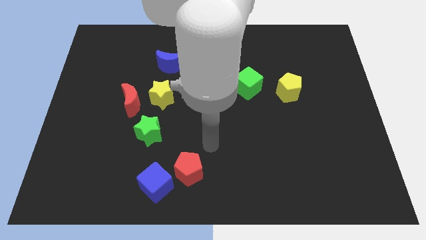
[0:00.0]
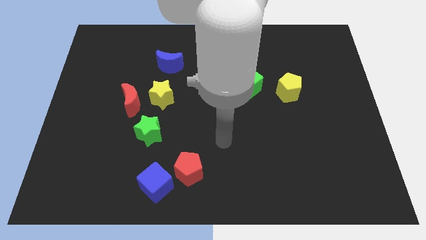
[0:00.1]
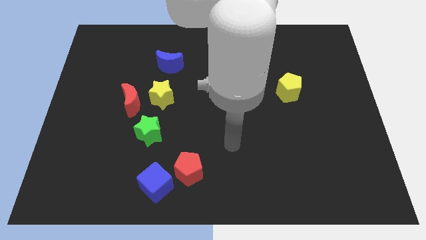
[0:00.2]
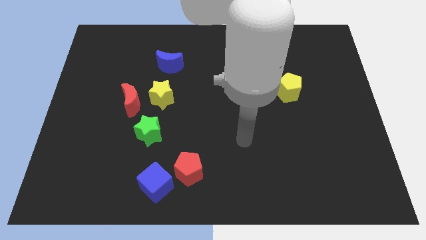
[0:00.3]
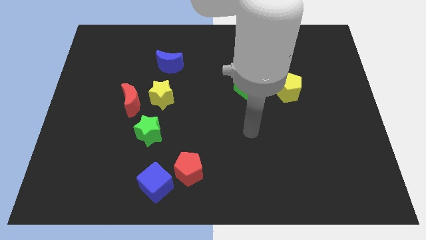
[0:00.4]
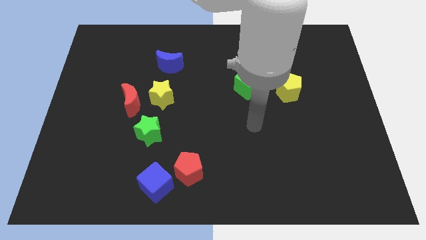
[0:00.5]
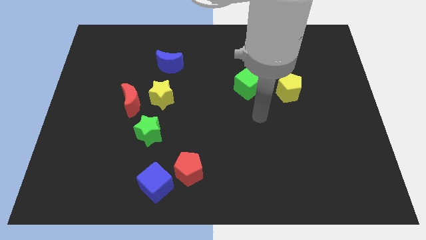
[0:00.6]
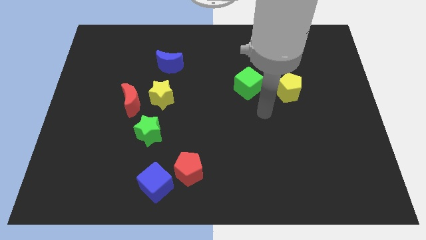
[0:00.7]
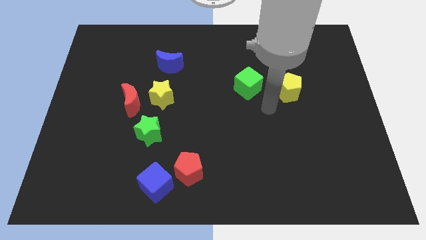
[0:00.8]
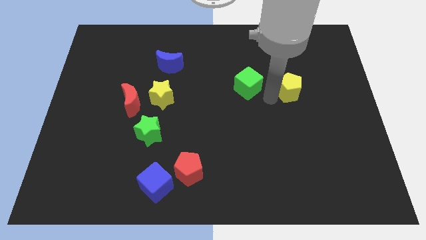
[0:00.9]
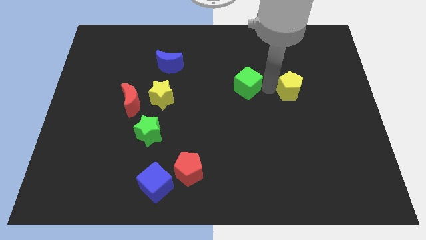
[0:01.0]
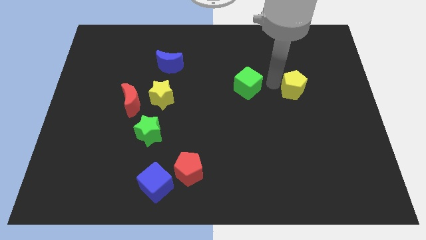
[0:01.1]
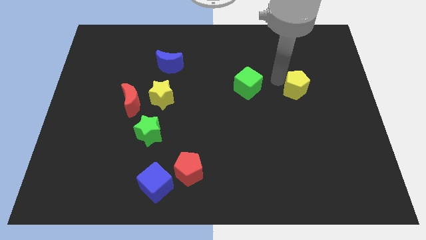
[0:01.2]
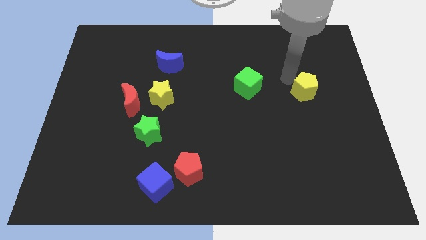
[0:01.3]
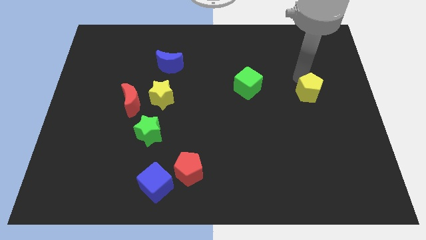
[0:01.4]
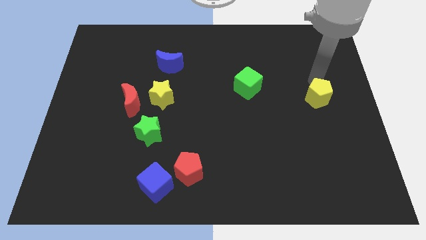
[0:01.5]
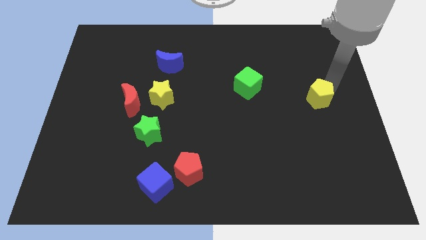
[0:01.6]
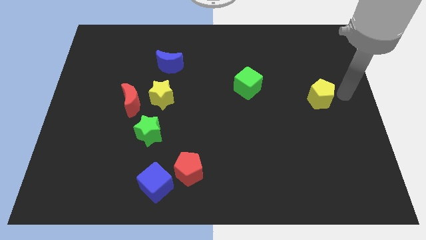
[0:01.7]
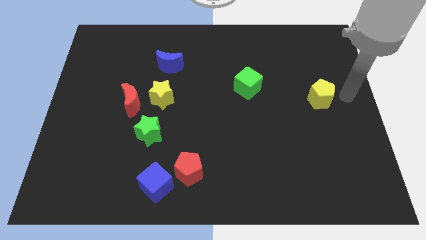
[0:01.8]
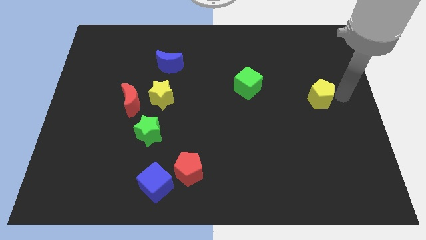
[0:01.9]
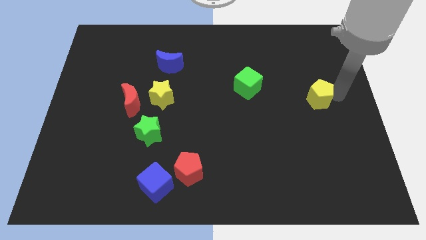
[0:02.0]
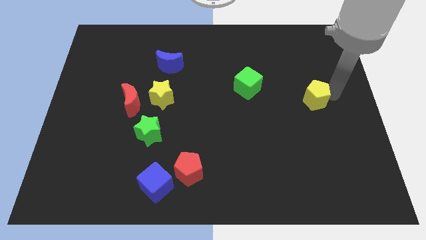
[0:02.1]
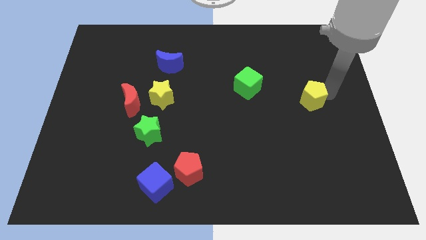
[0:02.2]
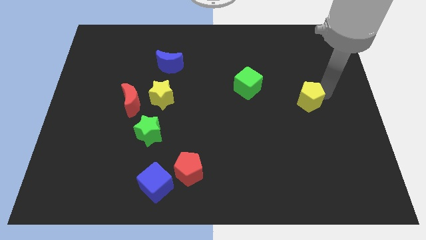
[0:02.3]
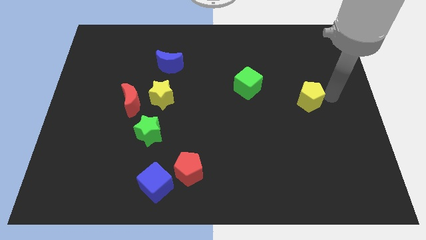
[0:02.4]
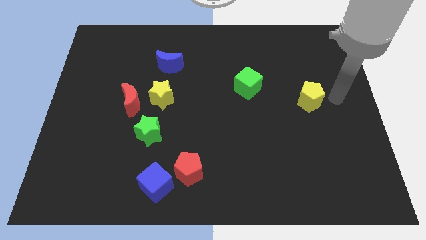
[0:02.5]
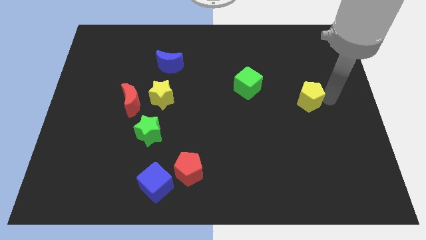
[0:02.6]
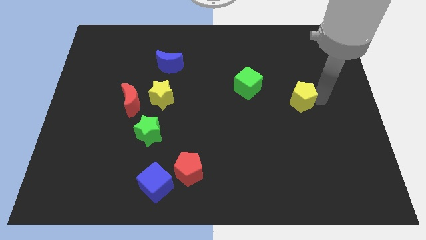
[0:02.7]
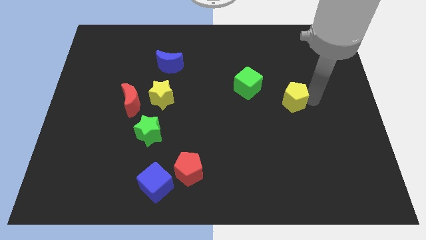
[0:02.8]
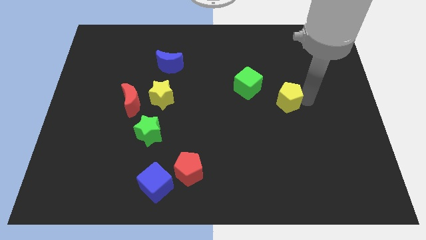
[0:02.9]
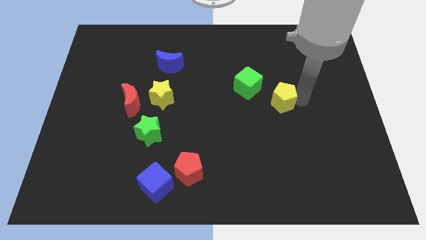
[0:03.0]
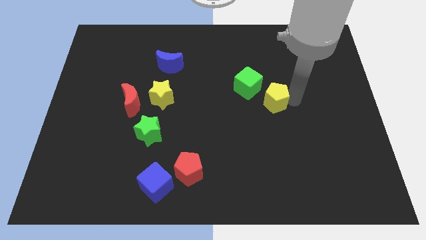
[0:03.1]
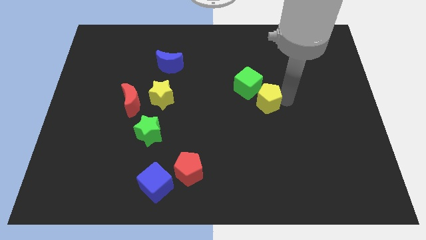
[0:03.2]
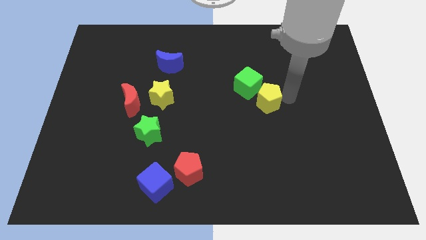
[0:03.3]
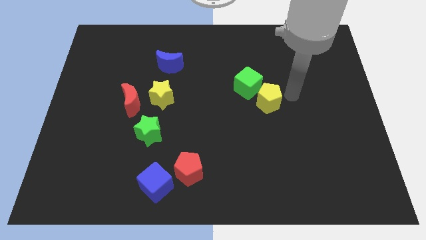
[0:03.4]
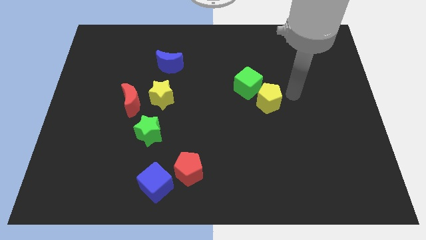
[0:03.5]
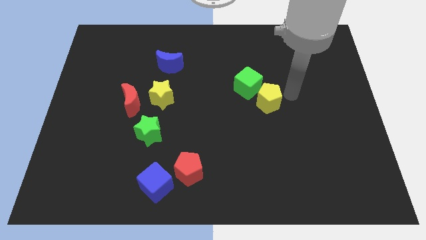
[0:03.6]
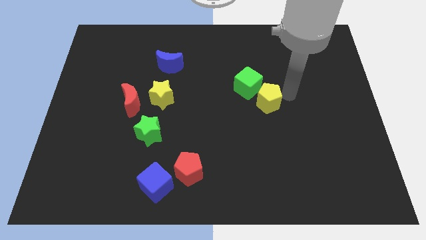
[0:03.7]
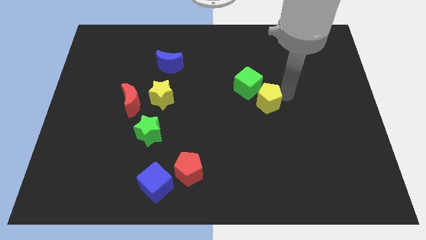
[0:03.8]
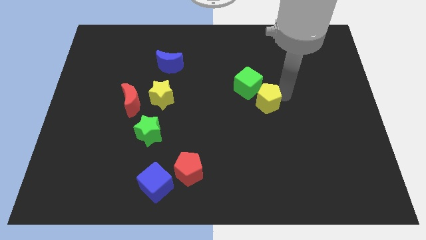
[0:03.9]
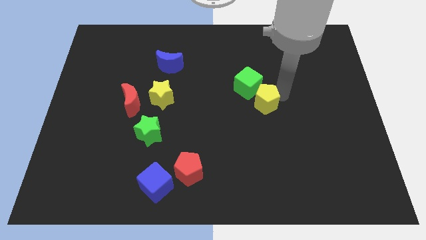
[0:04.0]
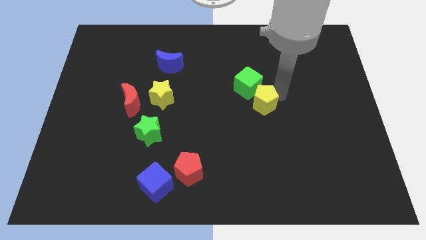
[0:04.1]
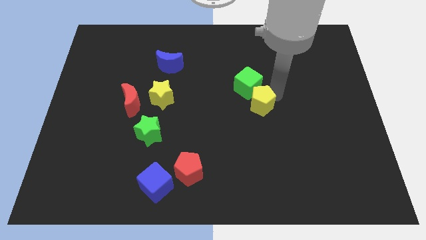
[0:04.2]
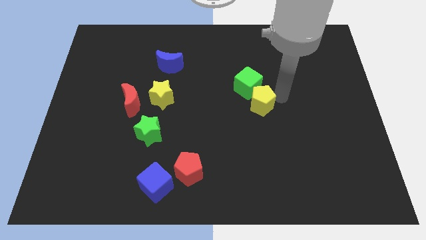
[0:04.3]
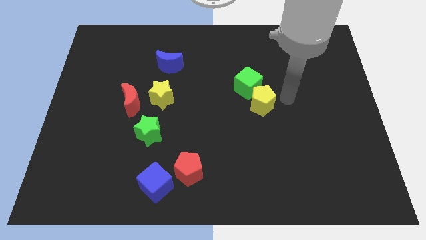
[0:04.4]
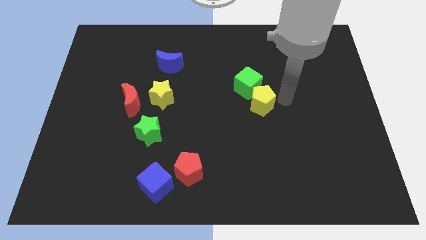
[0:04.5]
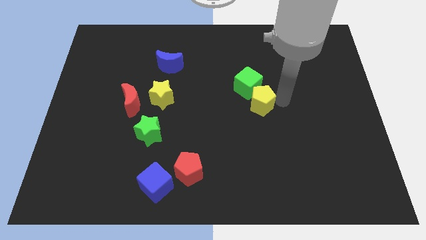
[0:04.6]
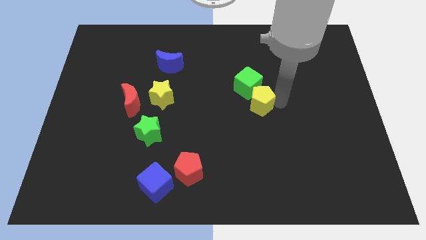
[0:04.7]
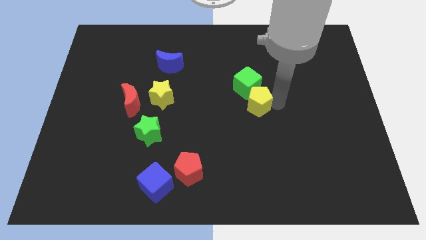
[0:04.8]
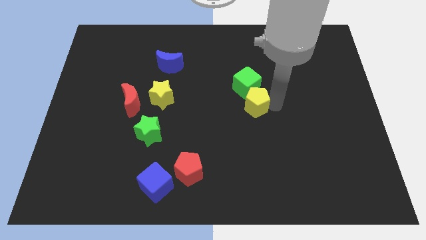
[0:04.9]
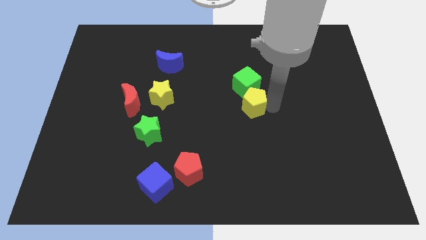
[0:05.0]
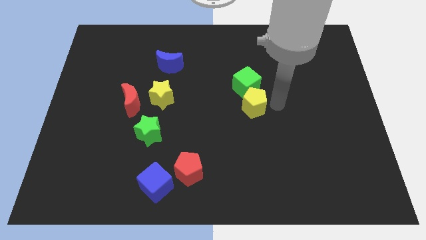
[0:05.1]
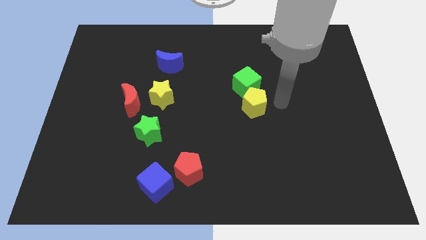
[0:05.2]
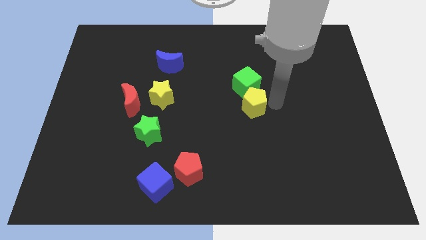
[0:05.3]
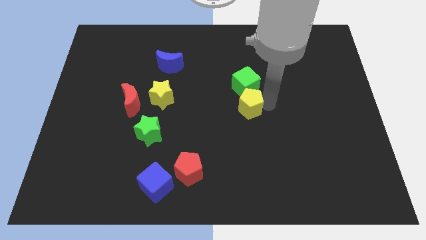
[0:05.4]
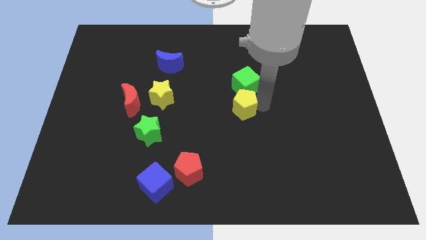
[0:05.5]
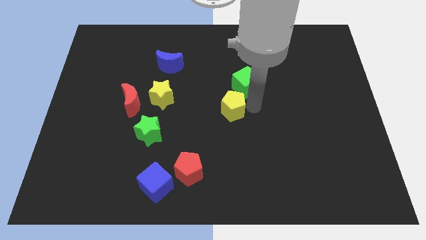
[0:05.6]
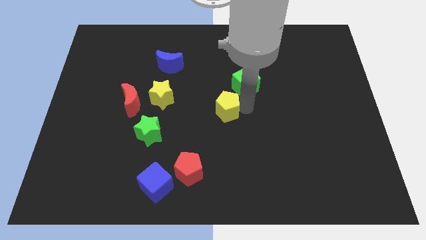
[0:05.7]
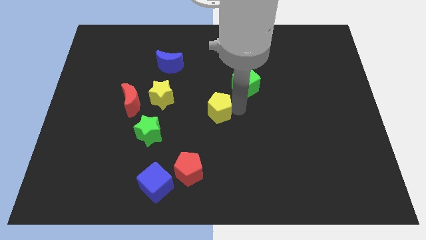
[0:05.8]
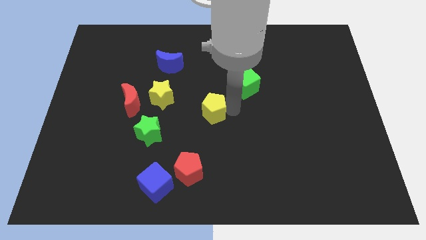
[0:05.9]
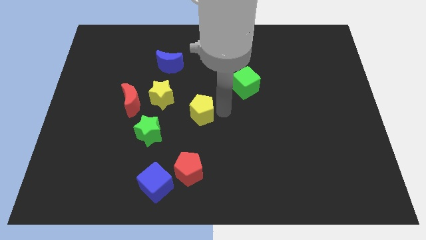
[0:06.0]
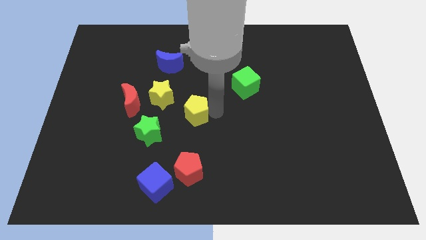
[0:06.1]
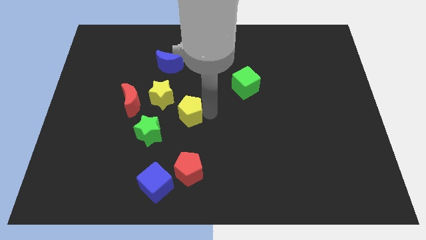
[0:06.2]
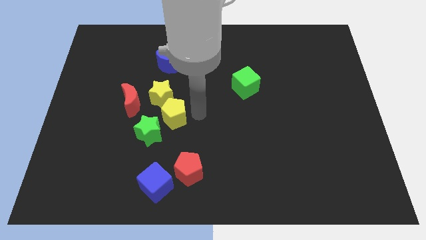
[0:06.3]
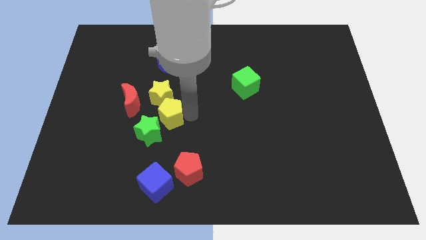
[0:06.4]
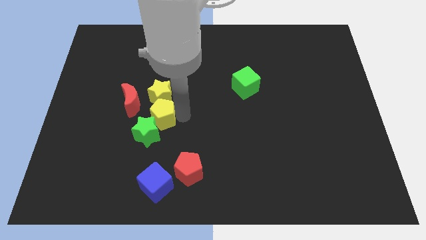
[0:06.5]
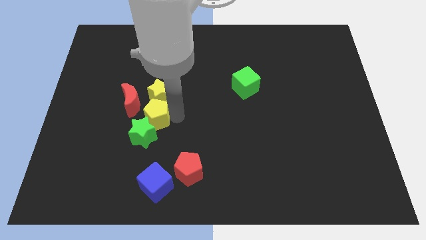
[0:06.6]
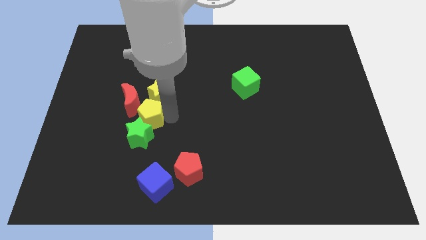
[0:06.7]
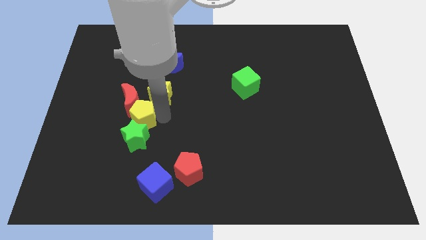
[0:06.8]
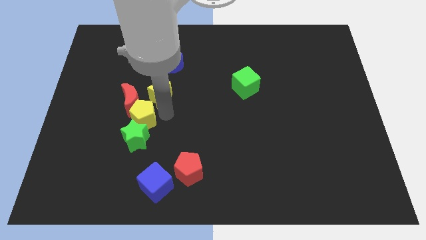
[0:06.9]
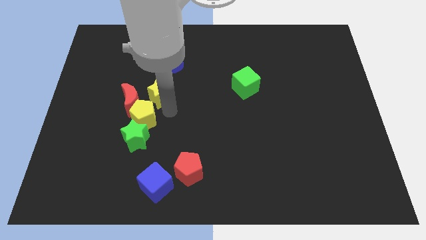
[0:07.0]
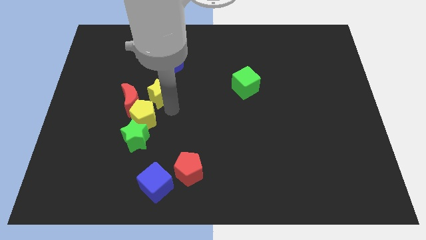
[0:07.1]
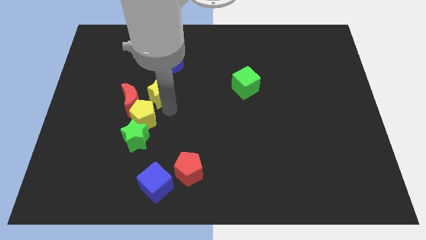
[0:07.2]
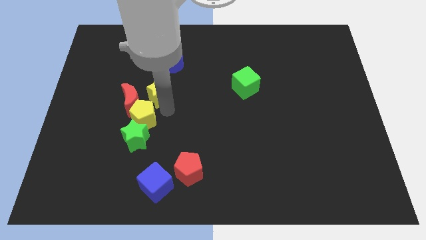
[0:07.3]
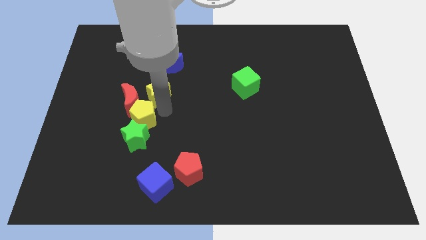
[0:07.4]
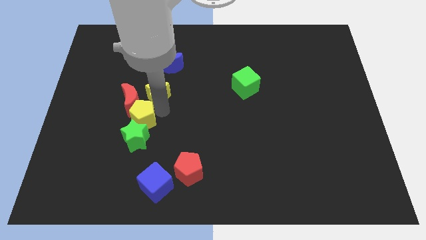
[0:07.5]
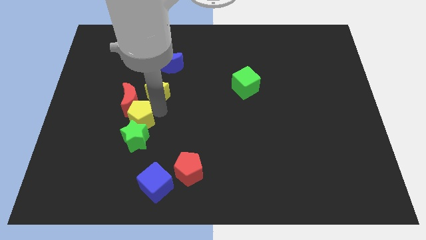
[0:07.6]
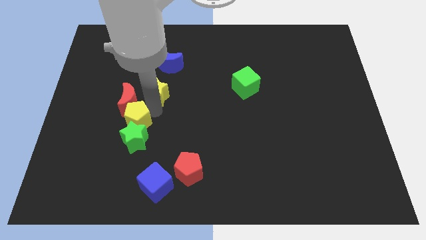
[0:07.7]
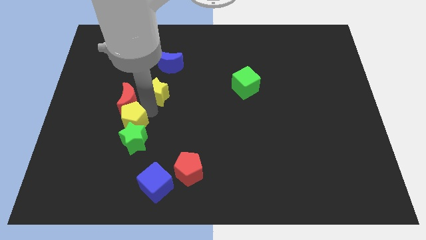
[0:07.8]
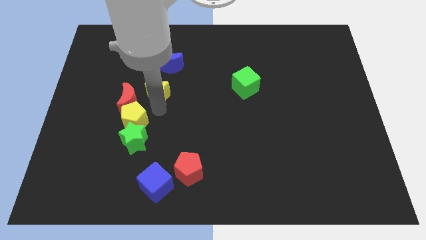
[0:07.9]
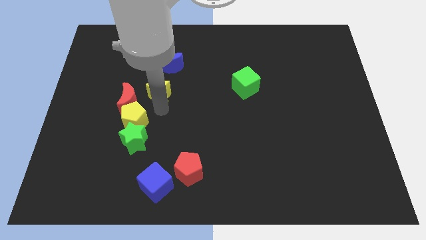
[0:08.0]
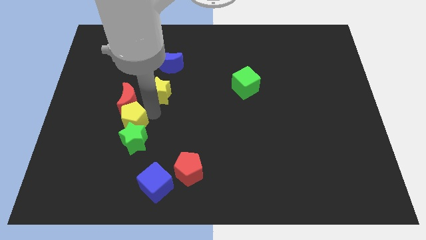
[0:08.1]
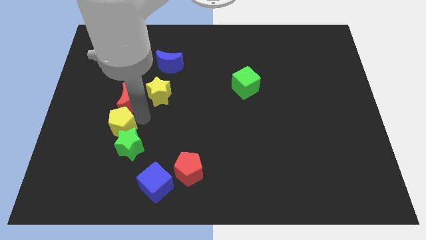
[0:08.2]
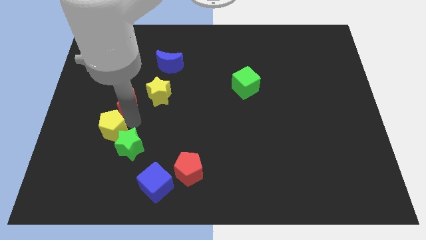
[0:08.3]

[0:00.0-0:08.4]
slide the yellow pentagon left of the green star
